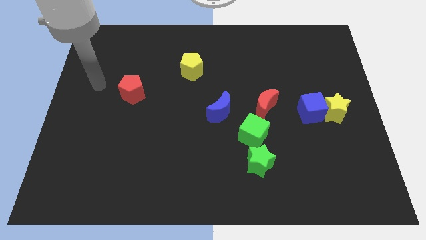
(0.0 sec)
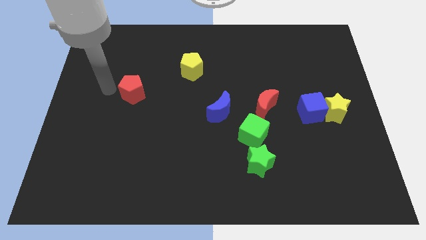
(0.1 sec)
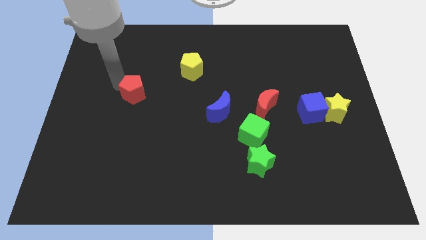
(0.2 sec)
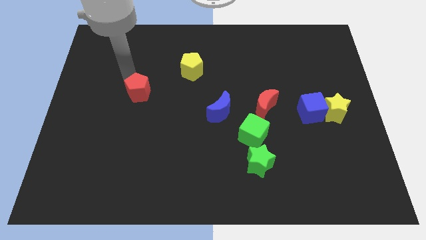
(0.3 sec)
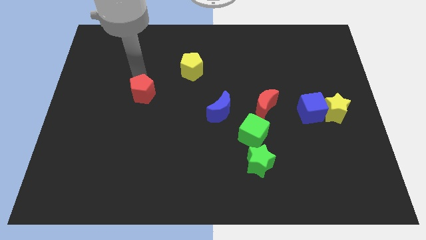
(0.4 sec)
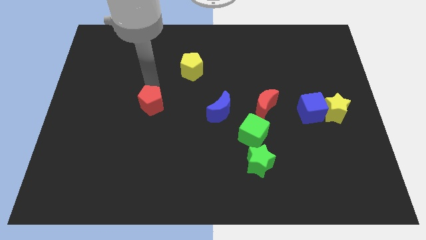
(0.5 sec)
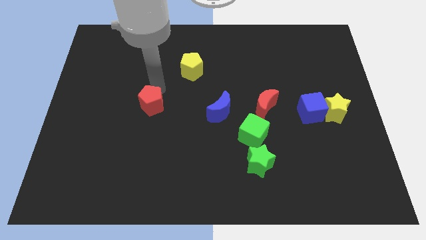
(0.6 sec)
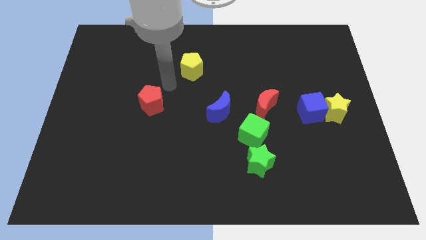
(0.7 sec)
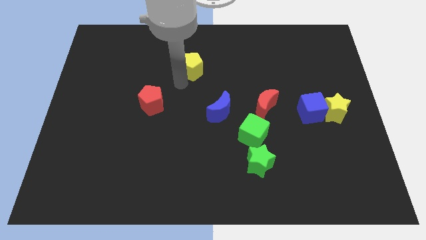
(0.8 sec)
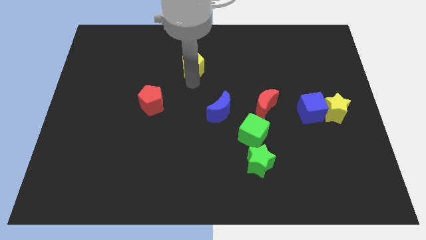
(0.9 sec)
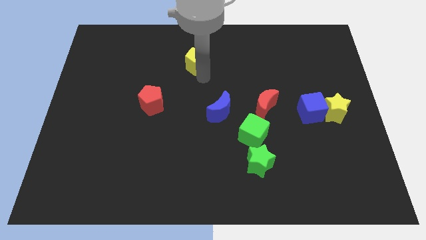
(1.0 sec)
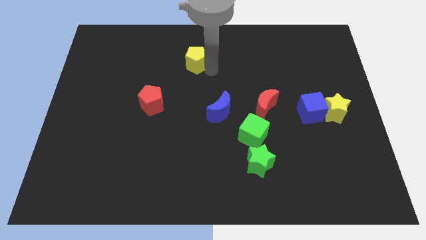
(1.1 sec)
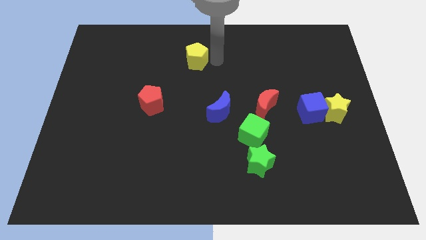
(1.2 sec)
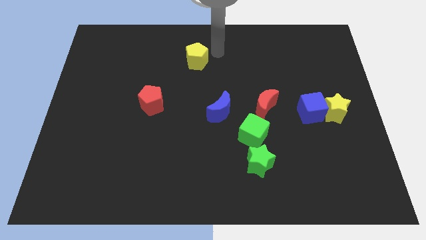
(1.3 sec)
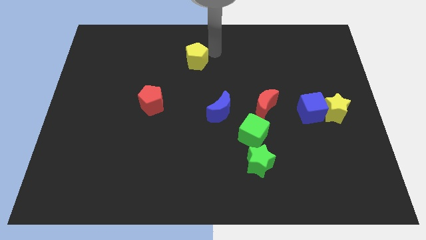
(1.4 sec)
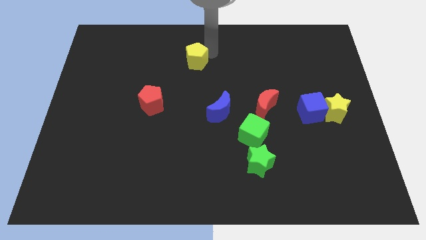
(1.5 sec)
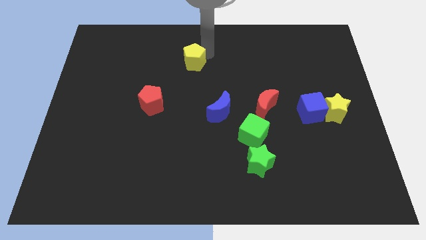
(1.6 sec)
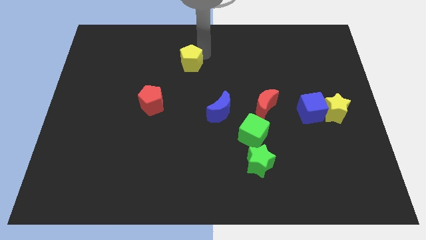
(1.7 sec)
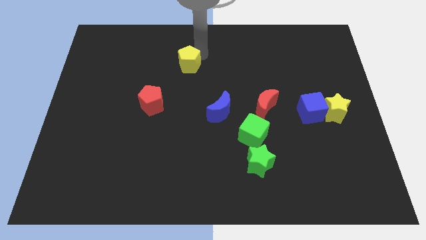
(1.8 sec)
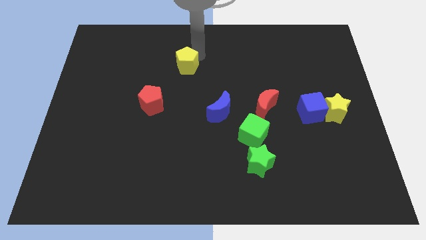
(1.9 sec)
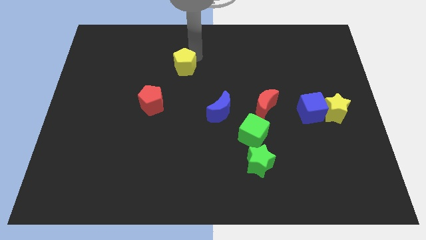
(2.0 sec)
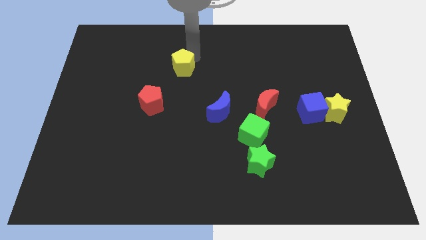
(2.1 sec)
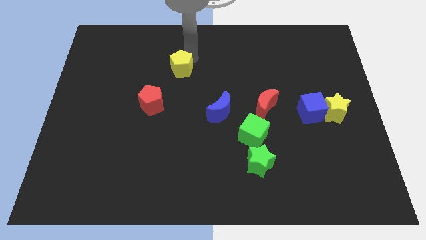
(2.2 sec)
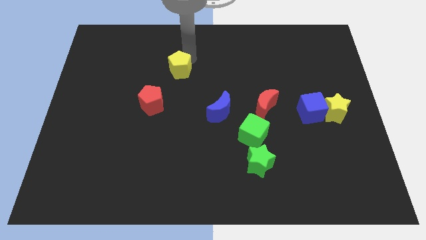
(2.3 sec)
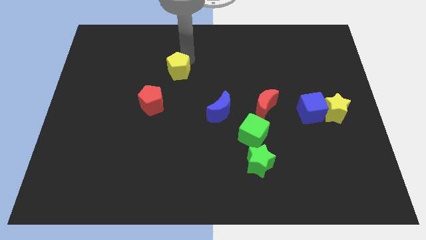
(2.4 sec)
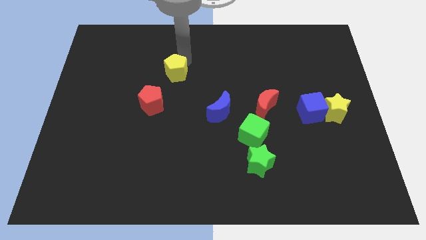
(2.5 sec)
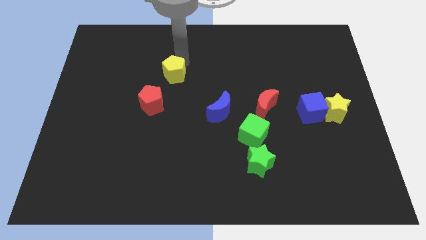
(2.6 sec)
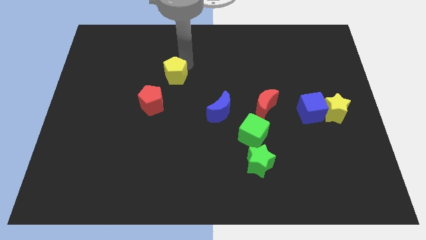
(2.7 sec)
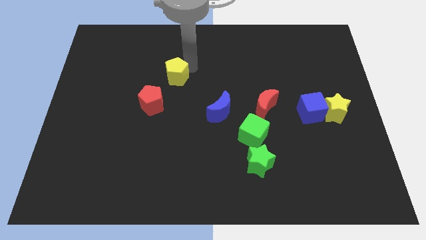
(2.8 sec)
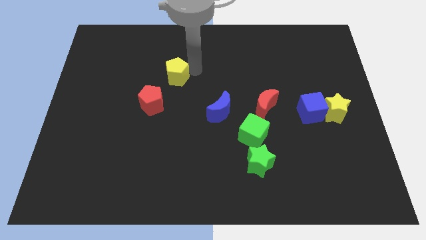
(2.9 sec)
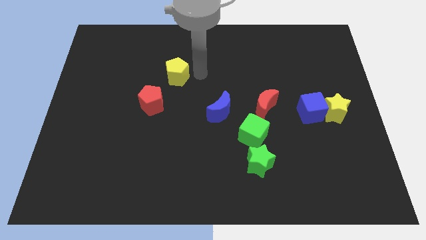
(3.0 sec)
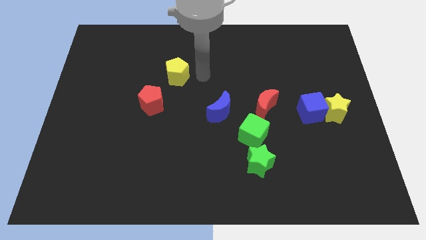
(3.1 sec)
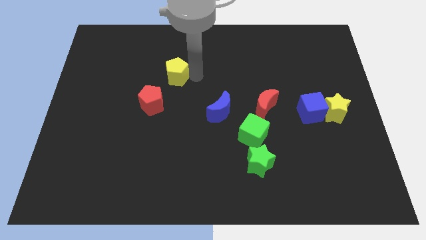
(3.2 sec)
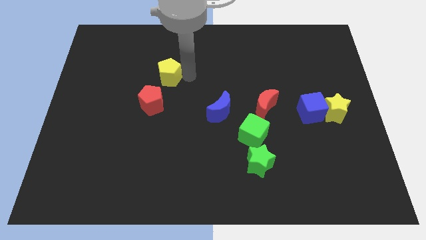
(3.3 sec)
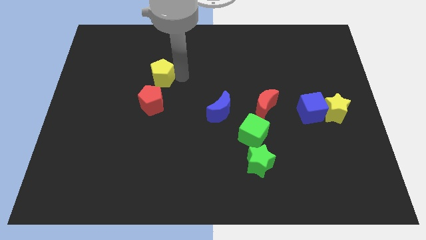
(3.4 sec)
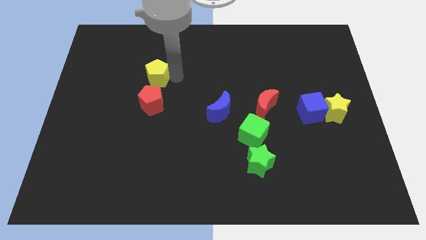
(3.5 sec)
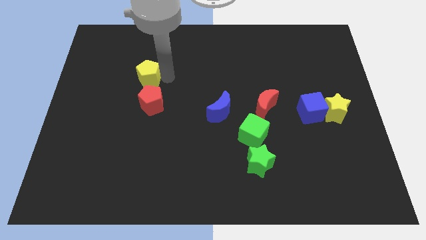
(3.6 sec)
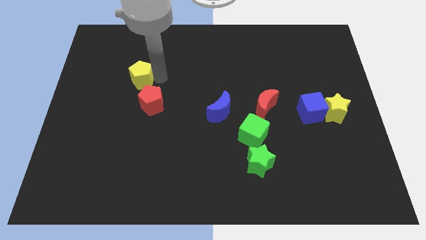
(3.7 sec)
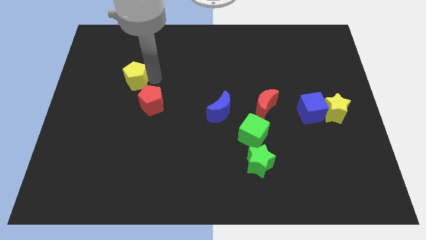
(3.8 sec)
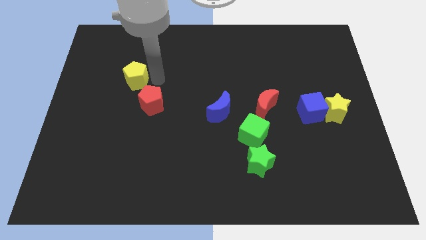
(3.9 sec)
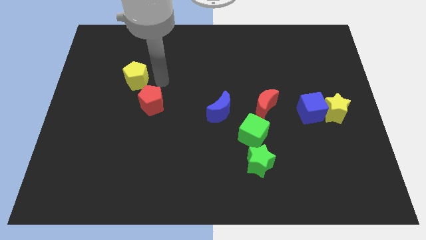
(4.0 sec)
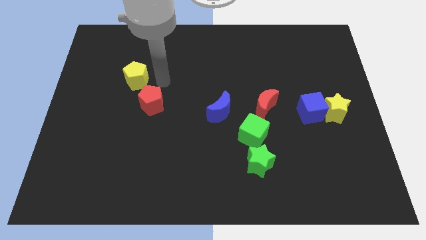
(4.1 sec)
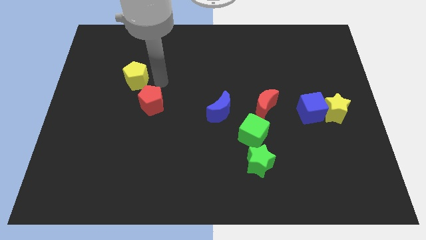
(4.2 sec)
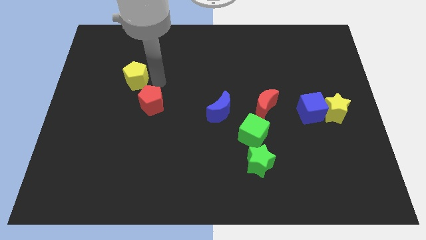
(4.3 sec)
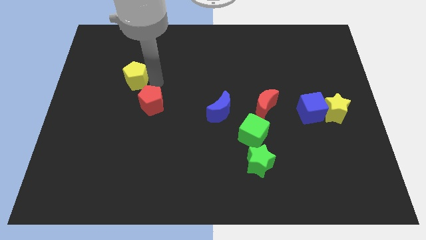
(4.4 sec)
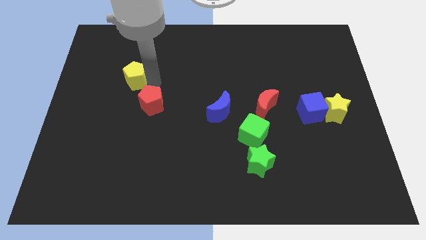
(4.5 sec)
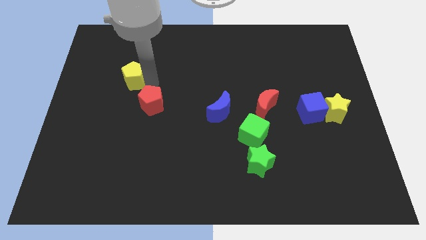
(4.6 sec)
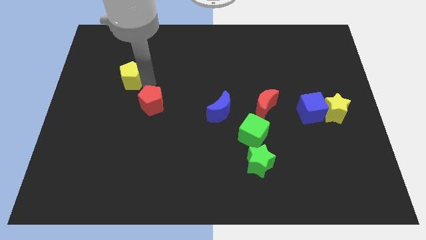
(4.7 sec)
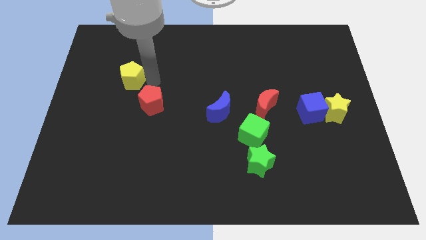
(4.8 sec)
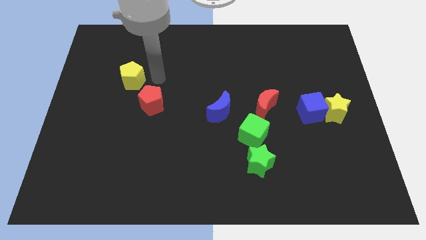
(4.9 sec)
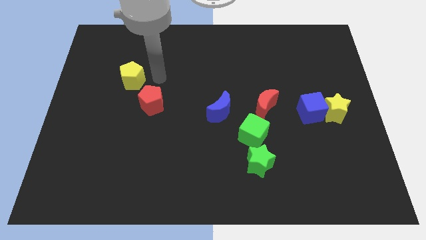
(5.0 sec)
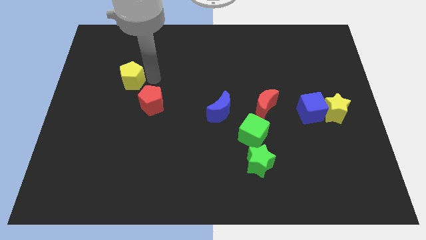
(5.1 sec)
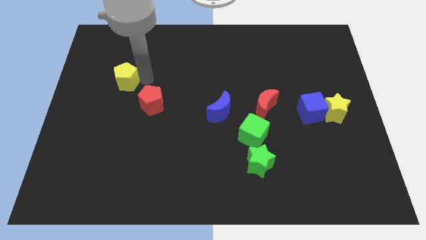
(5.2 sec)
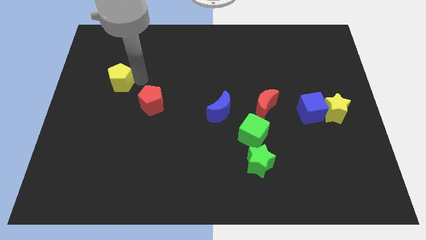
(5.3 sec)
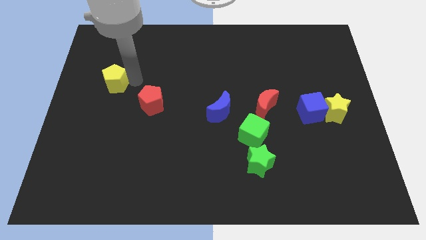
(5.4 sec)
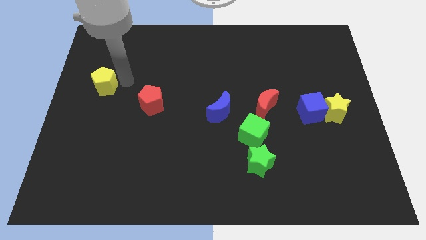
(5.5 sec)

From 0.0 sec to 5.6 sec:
slide the yellow pentagon to the center left
